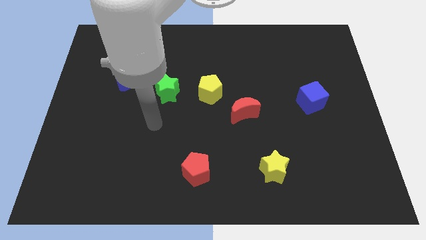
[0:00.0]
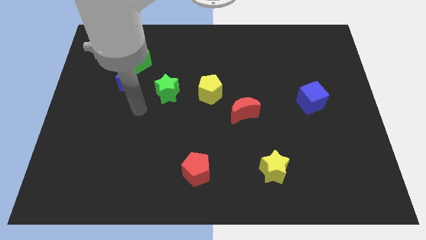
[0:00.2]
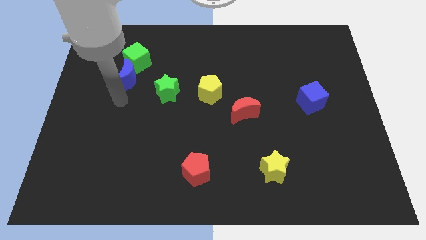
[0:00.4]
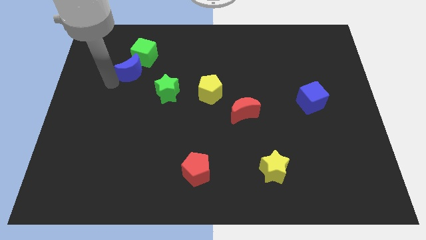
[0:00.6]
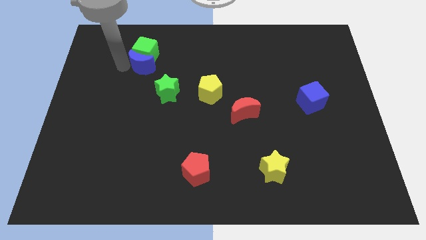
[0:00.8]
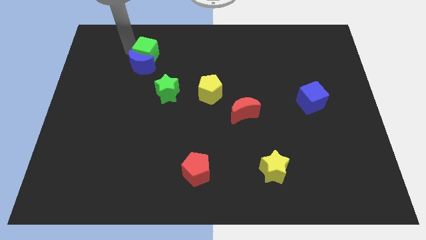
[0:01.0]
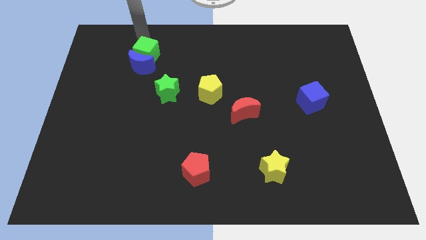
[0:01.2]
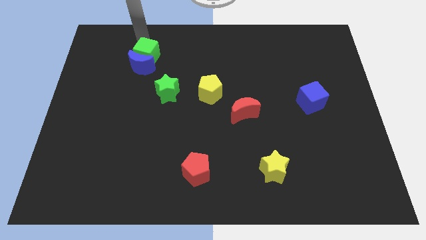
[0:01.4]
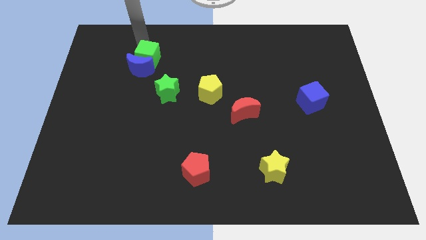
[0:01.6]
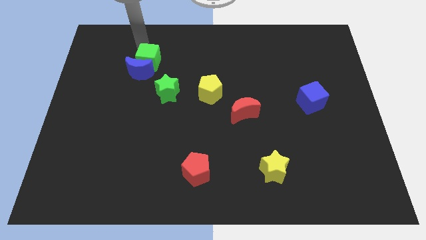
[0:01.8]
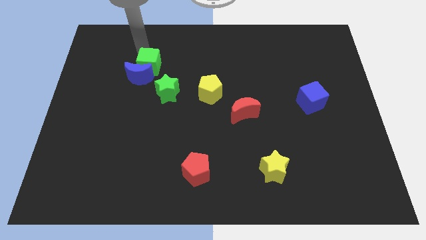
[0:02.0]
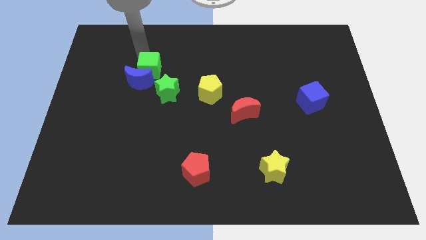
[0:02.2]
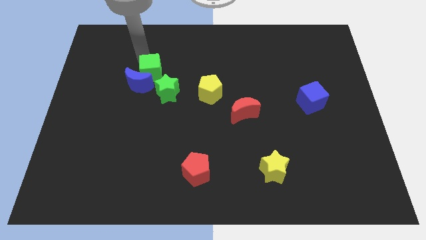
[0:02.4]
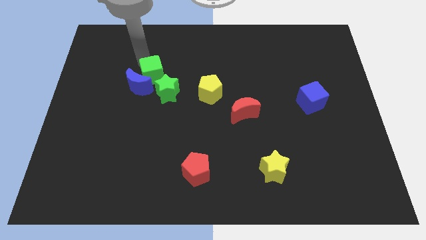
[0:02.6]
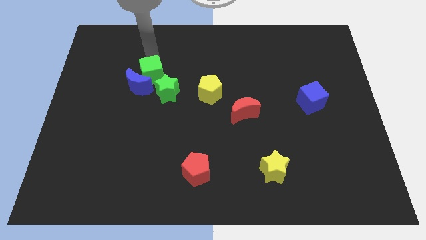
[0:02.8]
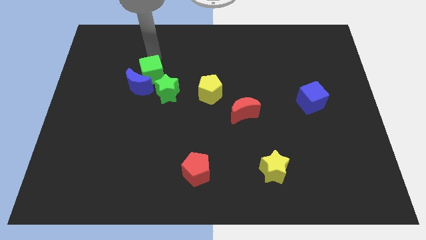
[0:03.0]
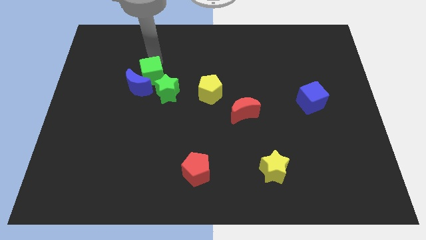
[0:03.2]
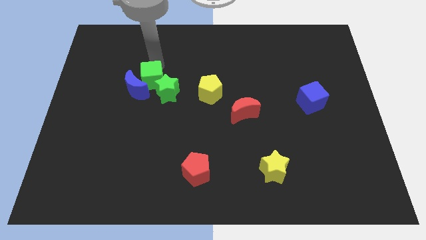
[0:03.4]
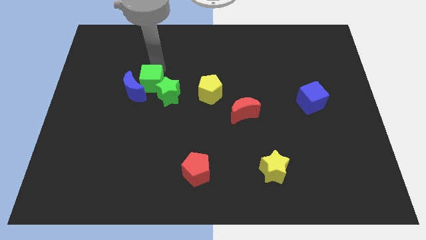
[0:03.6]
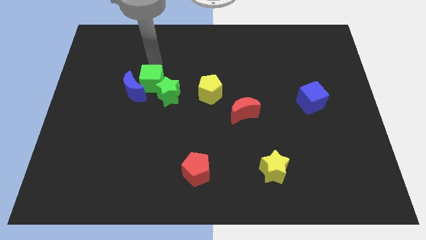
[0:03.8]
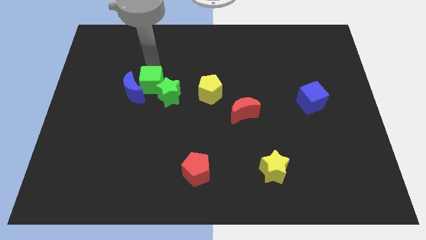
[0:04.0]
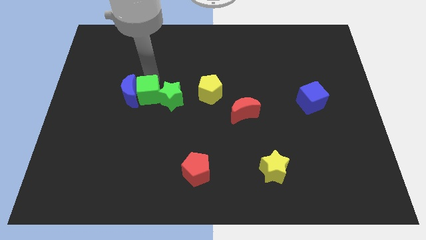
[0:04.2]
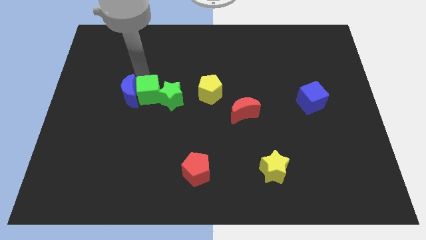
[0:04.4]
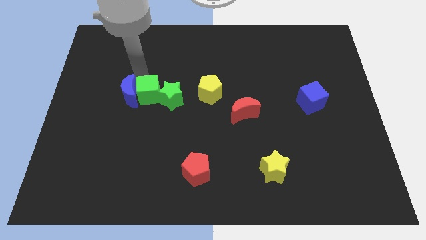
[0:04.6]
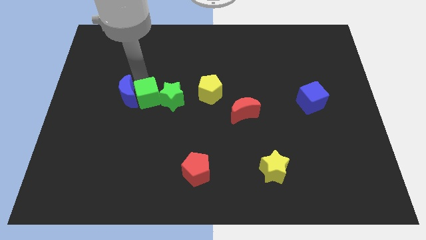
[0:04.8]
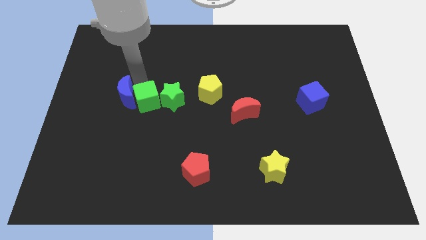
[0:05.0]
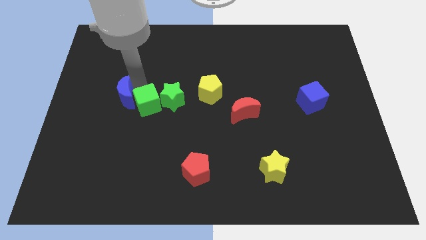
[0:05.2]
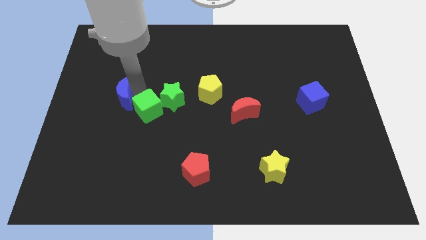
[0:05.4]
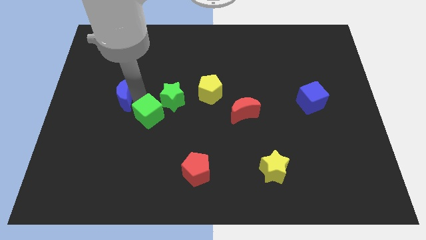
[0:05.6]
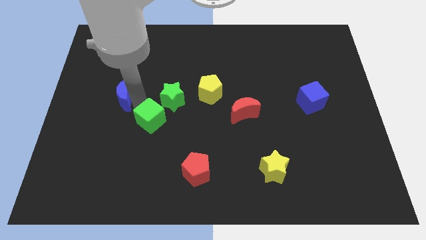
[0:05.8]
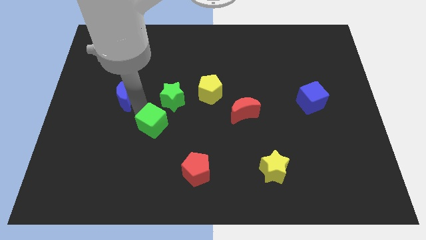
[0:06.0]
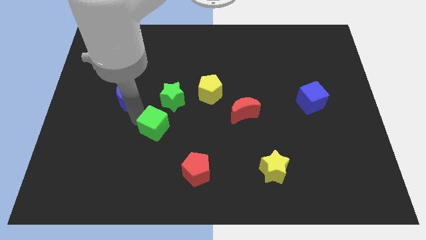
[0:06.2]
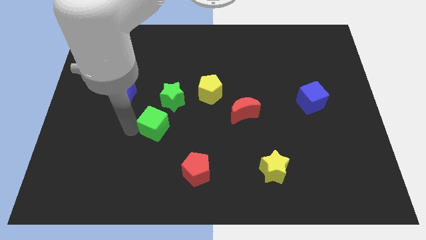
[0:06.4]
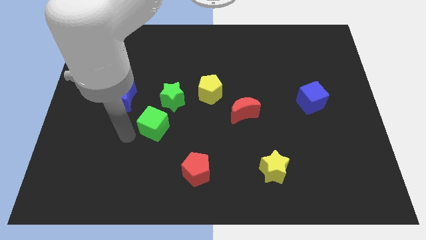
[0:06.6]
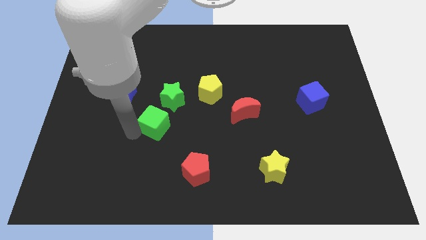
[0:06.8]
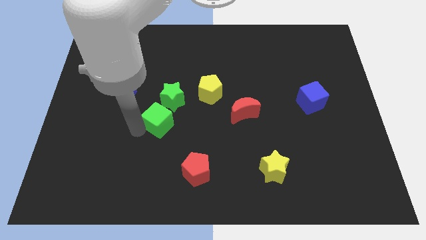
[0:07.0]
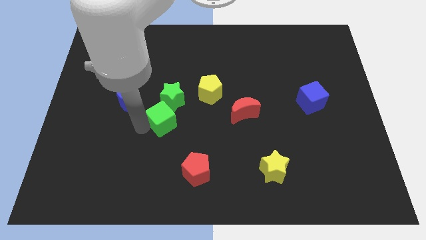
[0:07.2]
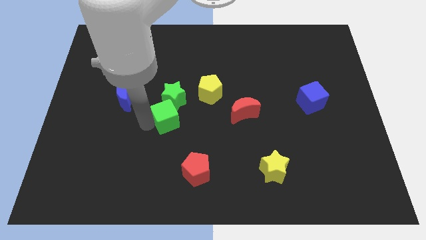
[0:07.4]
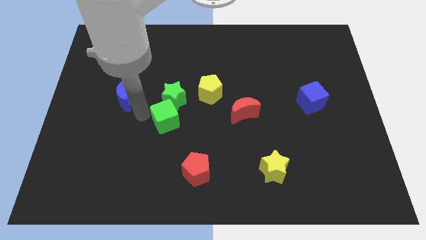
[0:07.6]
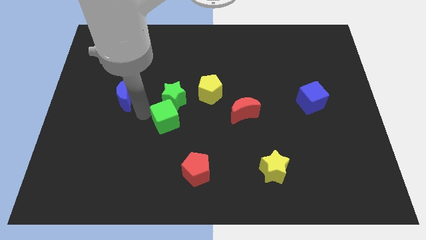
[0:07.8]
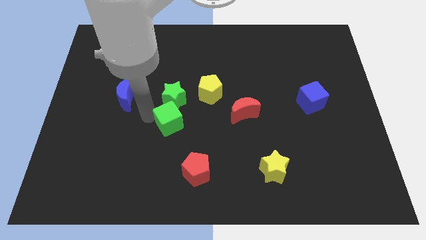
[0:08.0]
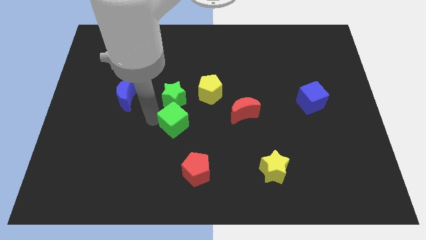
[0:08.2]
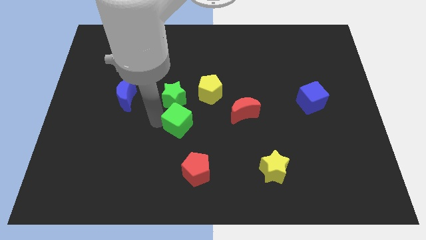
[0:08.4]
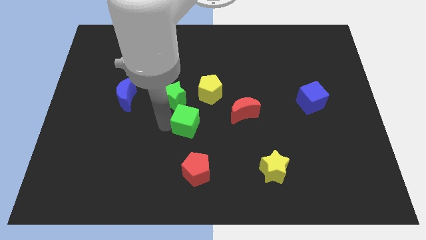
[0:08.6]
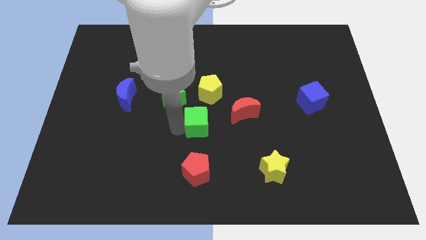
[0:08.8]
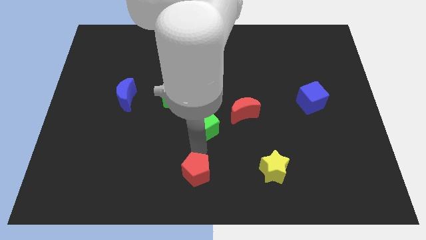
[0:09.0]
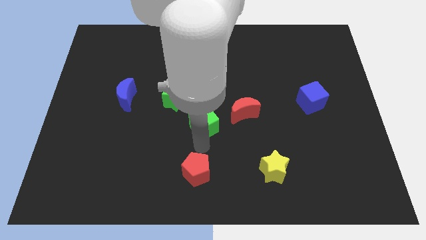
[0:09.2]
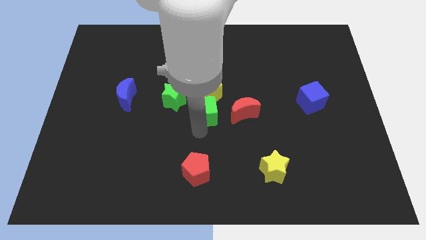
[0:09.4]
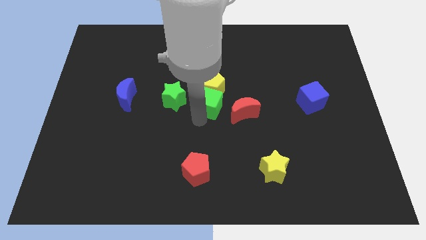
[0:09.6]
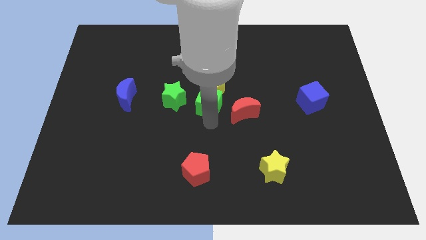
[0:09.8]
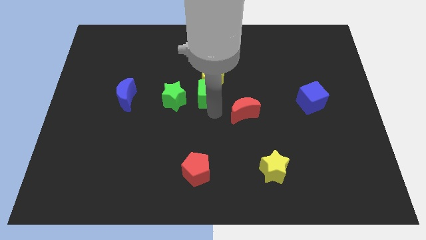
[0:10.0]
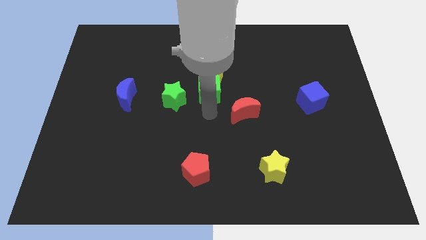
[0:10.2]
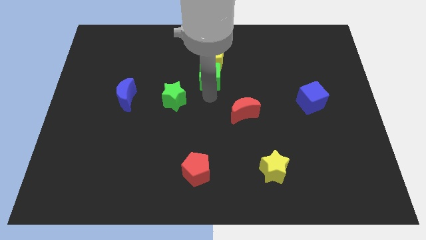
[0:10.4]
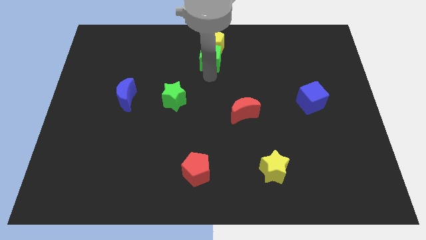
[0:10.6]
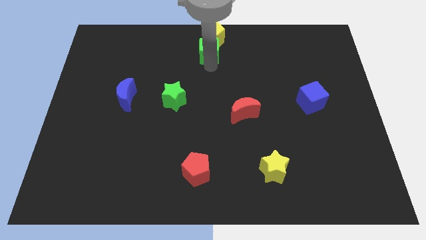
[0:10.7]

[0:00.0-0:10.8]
slide the green cube to the top

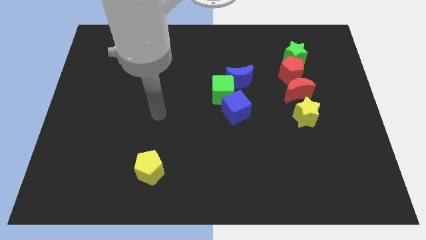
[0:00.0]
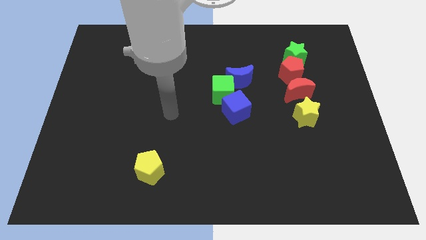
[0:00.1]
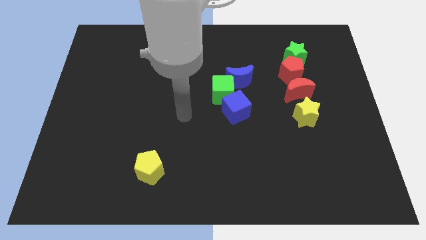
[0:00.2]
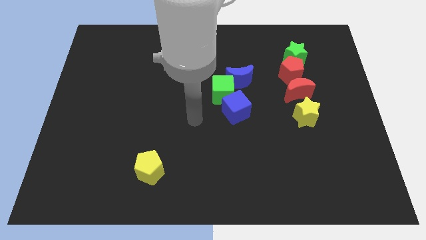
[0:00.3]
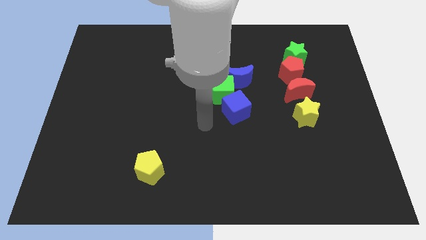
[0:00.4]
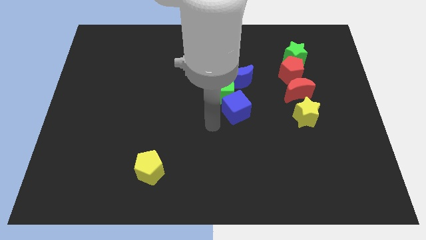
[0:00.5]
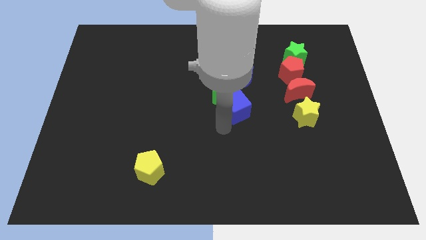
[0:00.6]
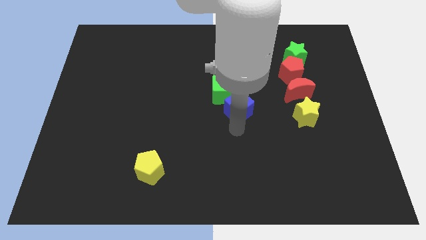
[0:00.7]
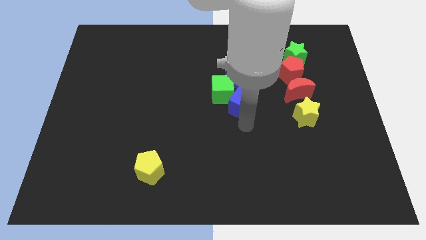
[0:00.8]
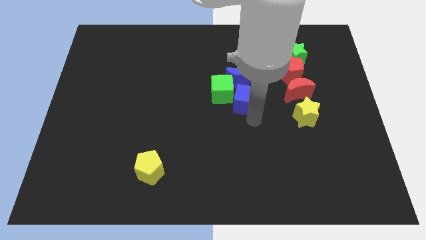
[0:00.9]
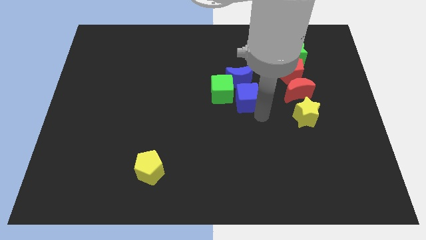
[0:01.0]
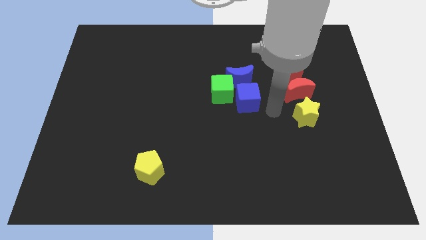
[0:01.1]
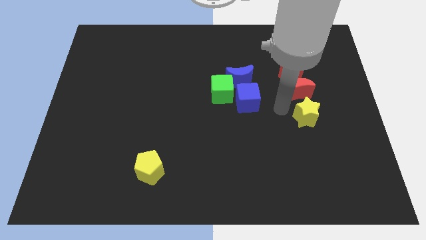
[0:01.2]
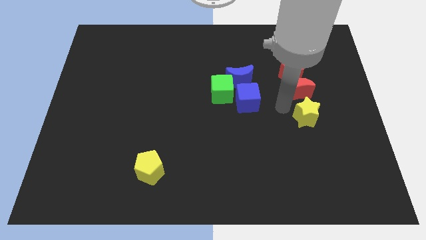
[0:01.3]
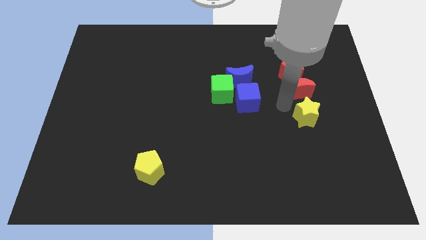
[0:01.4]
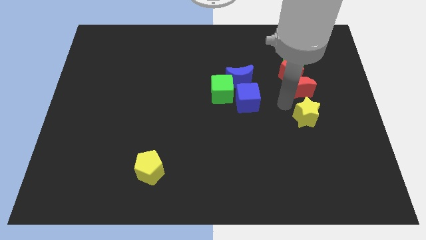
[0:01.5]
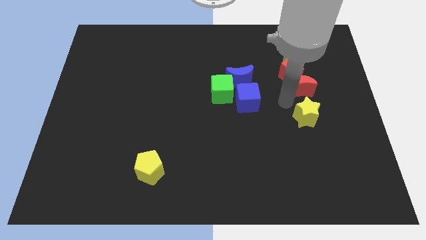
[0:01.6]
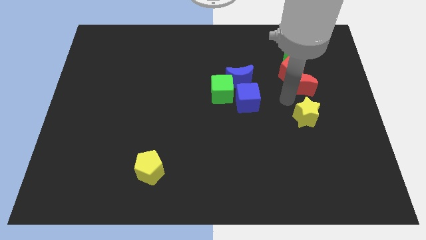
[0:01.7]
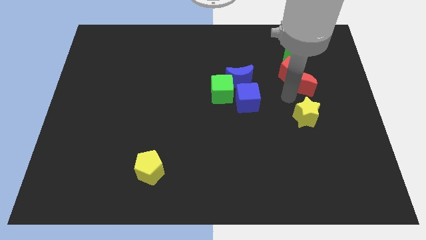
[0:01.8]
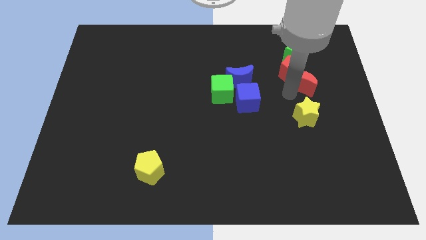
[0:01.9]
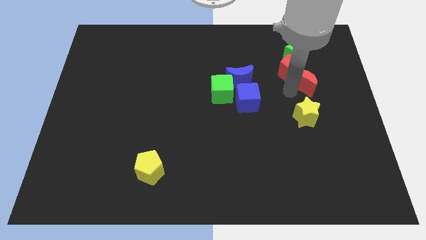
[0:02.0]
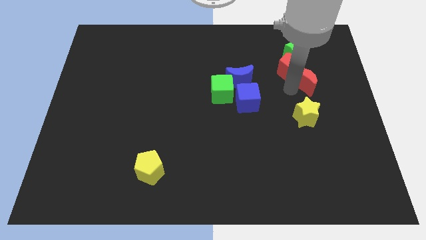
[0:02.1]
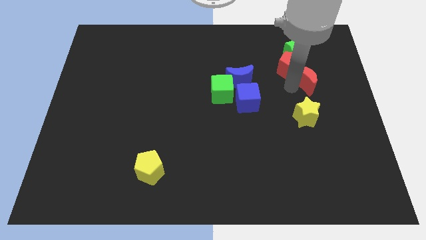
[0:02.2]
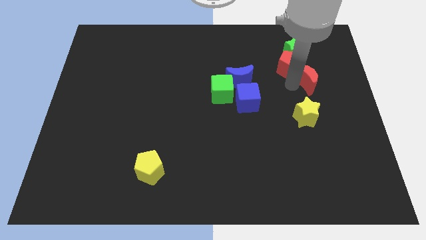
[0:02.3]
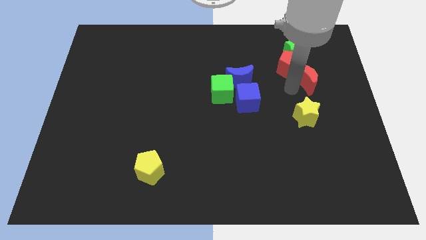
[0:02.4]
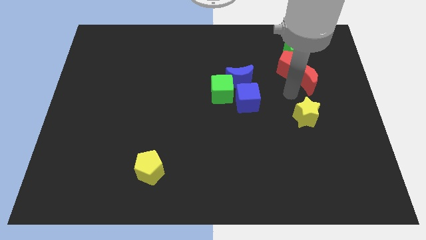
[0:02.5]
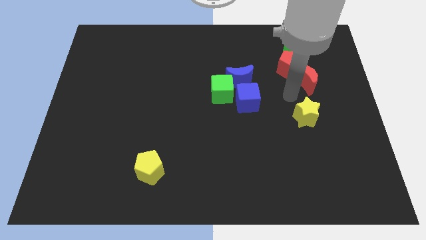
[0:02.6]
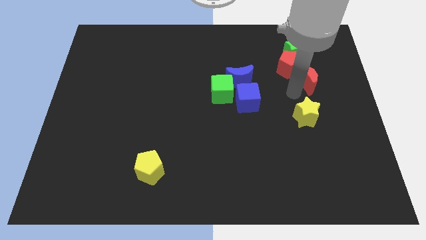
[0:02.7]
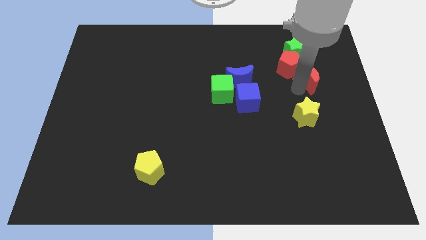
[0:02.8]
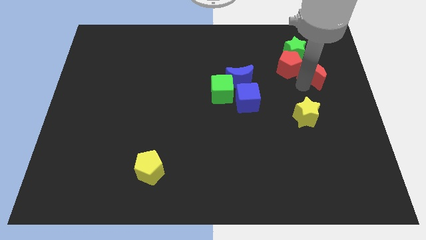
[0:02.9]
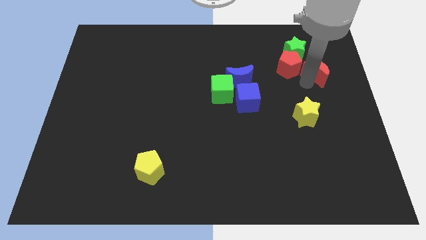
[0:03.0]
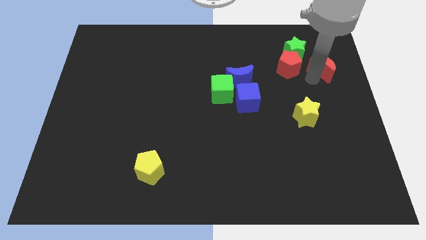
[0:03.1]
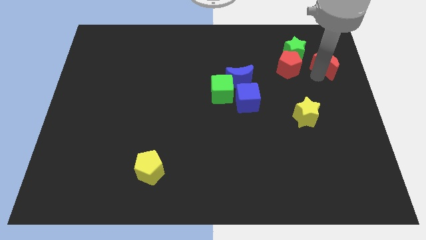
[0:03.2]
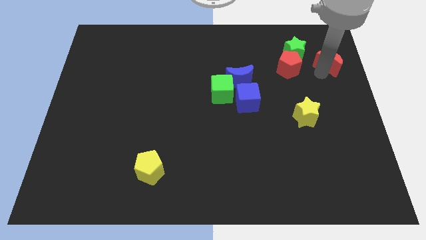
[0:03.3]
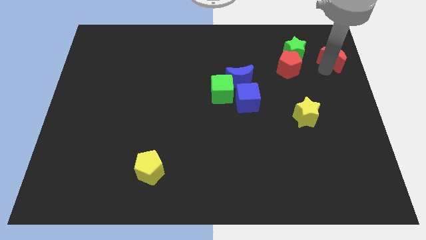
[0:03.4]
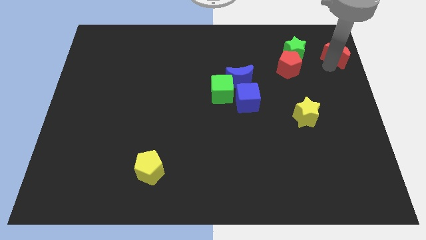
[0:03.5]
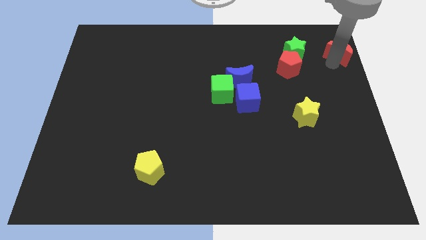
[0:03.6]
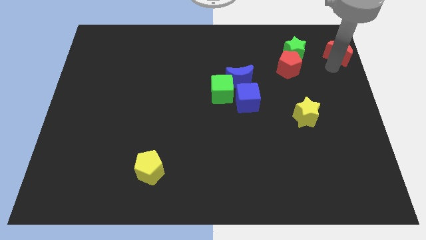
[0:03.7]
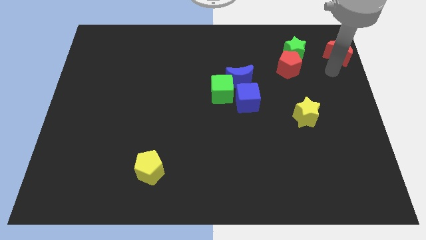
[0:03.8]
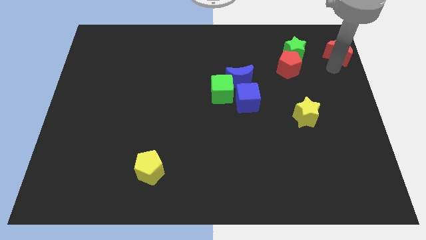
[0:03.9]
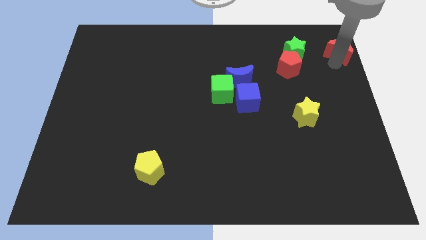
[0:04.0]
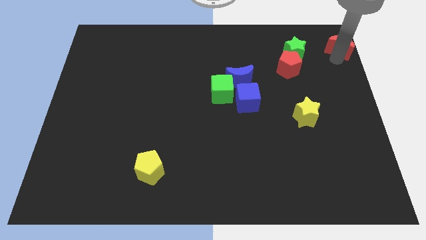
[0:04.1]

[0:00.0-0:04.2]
move the red moon to the top right corner
